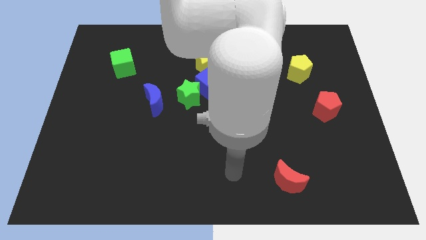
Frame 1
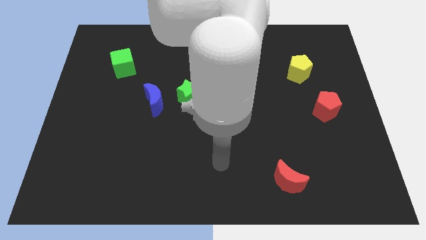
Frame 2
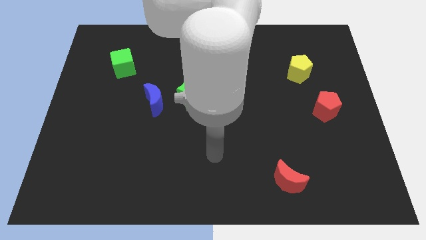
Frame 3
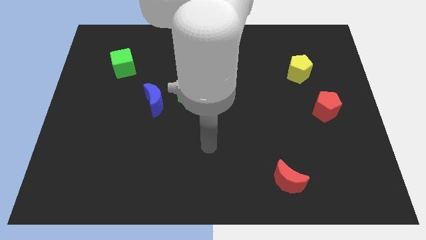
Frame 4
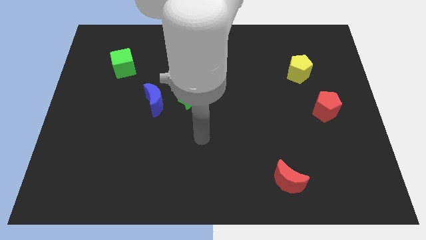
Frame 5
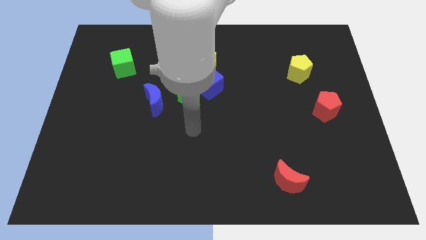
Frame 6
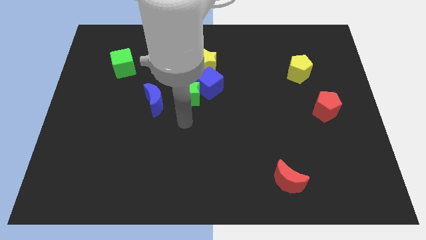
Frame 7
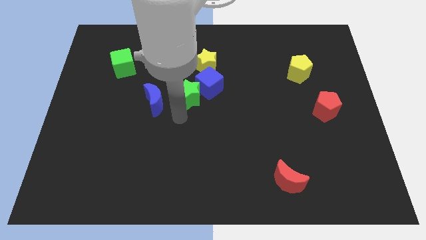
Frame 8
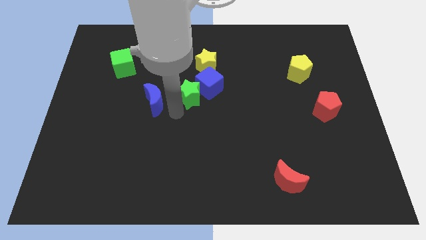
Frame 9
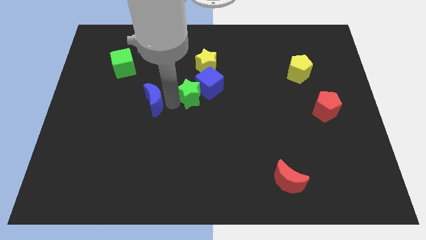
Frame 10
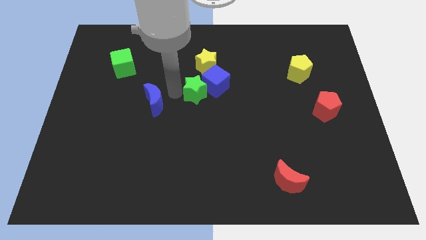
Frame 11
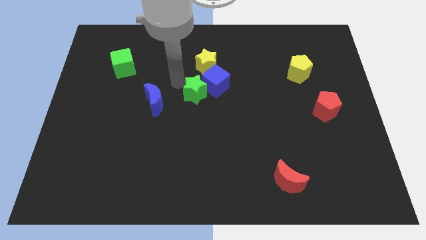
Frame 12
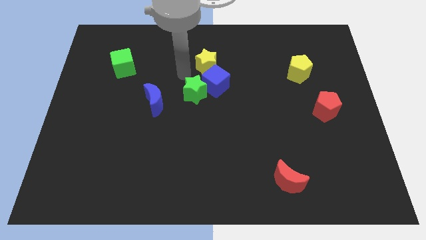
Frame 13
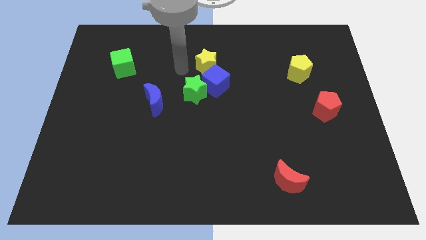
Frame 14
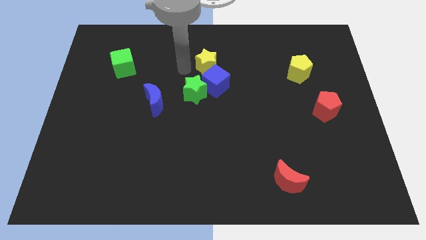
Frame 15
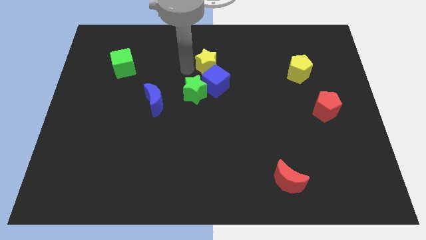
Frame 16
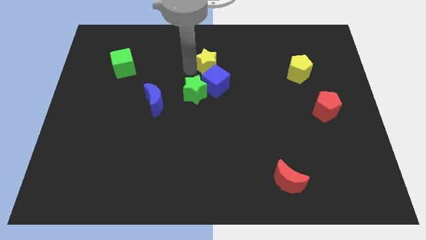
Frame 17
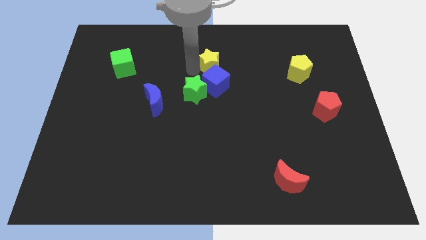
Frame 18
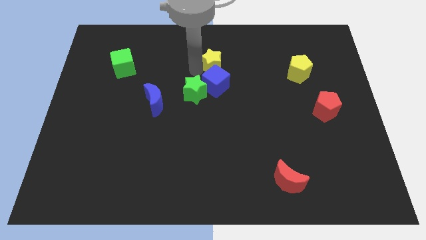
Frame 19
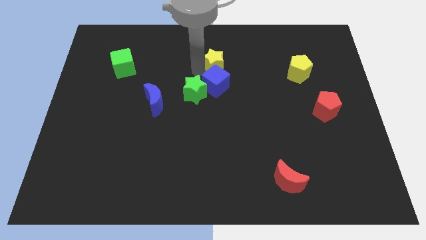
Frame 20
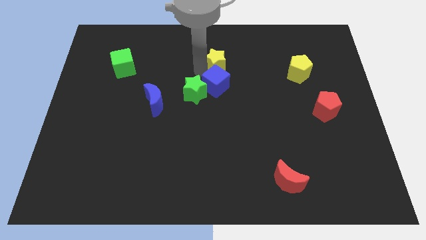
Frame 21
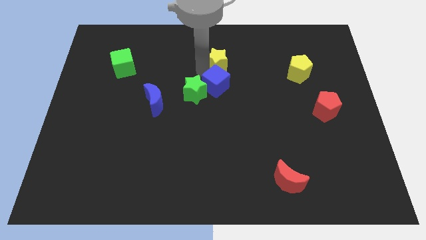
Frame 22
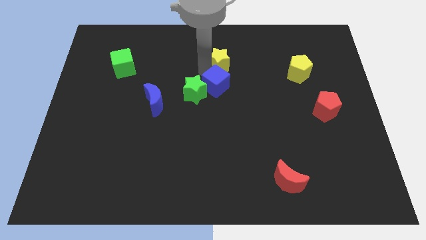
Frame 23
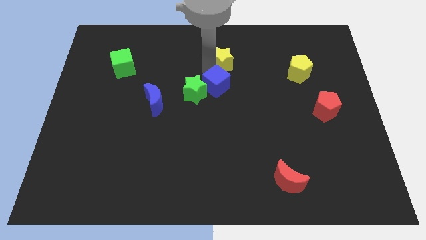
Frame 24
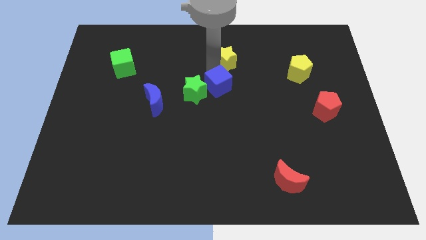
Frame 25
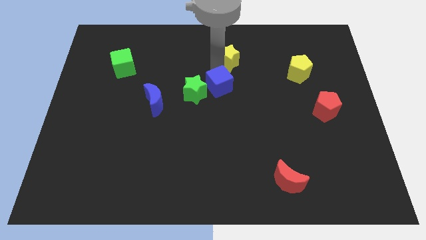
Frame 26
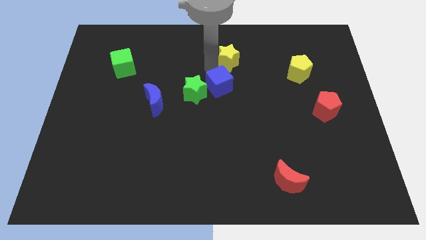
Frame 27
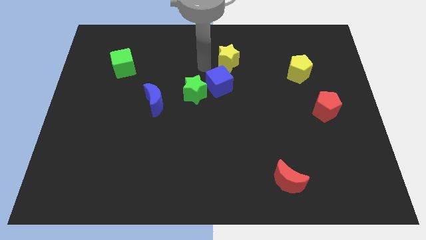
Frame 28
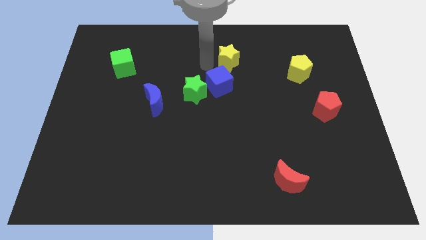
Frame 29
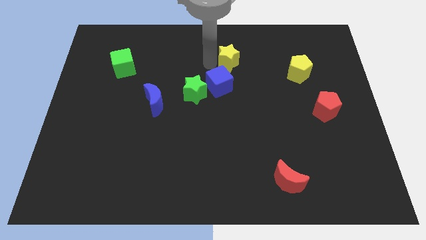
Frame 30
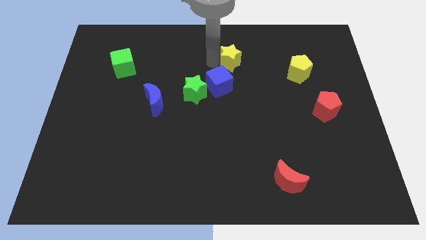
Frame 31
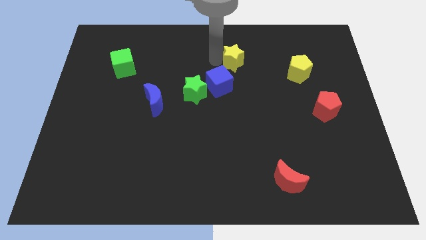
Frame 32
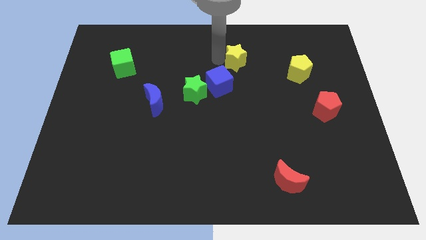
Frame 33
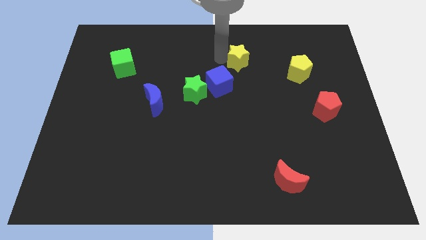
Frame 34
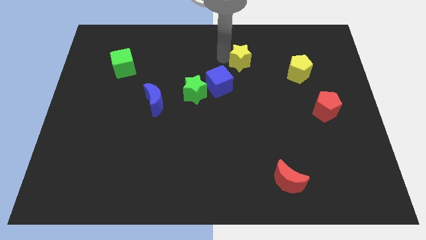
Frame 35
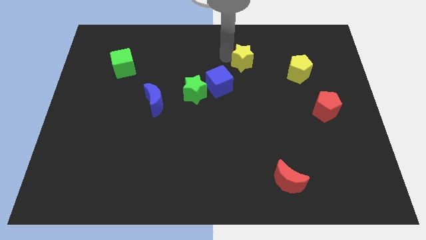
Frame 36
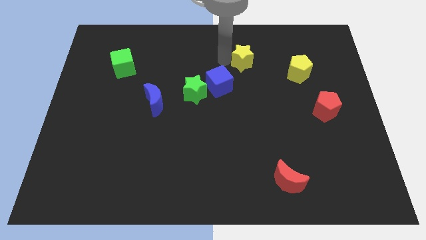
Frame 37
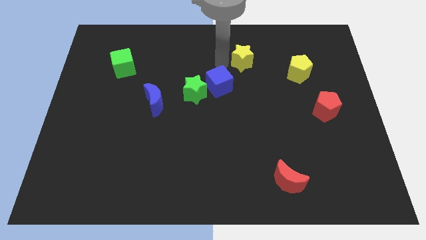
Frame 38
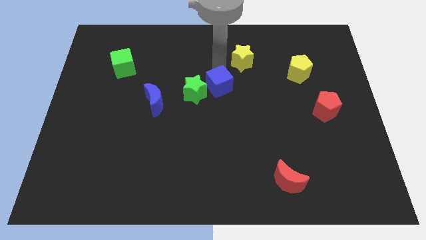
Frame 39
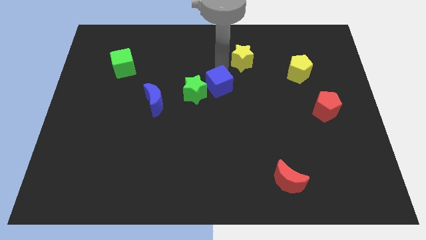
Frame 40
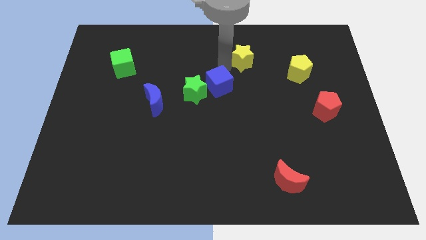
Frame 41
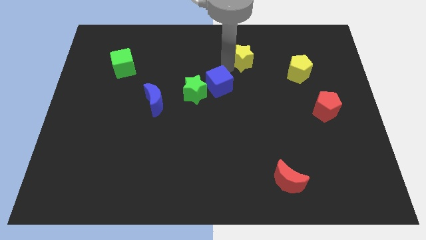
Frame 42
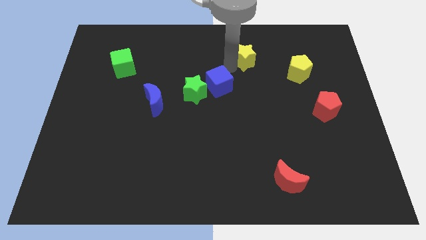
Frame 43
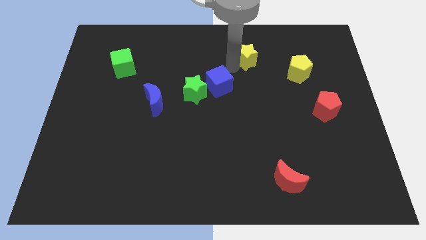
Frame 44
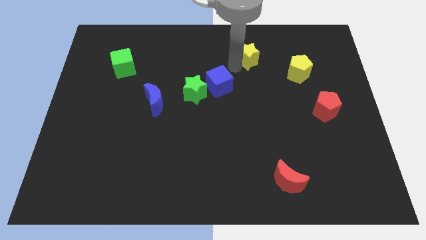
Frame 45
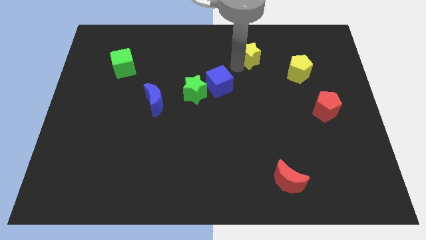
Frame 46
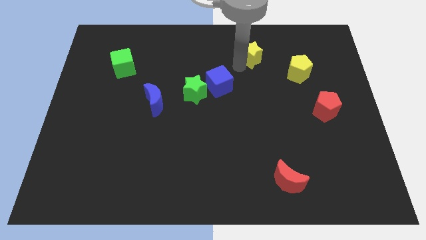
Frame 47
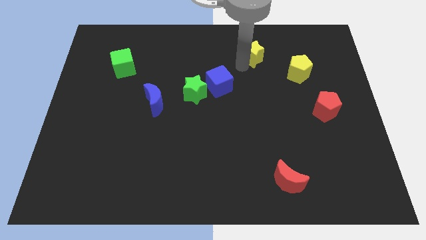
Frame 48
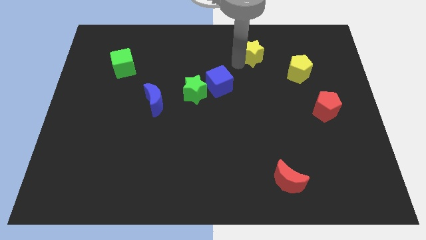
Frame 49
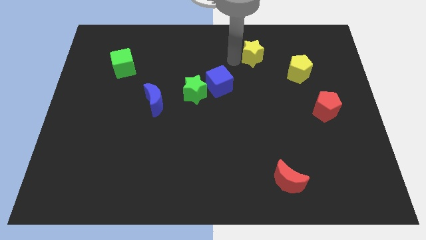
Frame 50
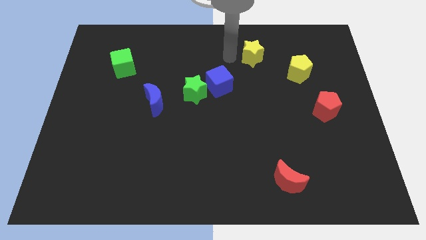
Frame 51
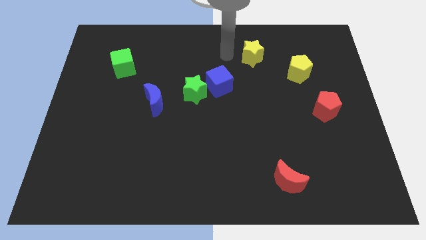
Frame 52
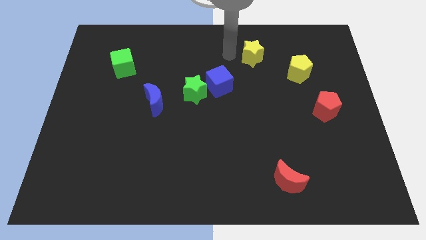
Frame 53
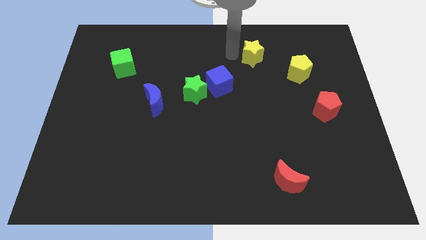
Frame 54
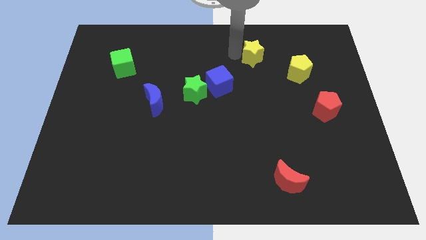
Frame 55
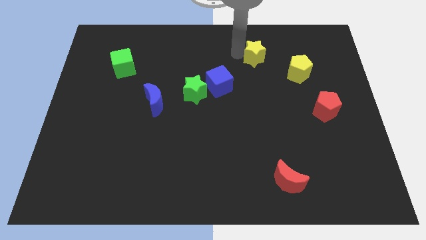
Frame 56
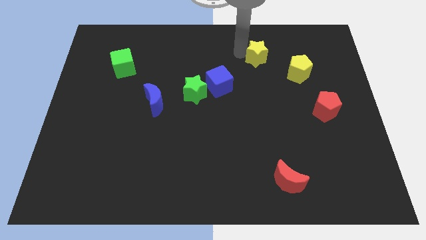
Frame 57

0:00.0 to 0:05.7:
push the yellow star diagonally up and to the left of the yellow pentagon
